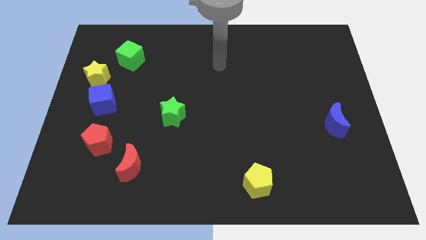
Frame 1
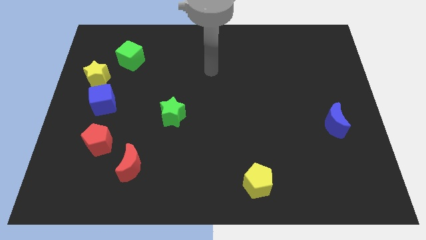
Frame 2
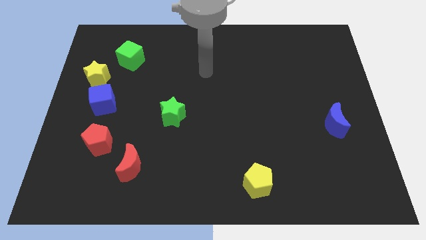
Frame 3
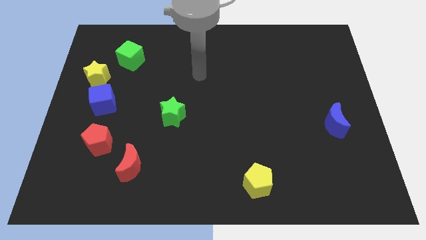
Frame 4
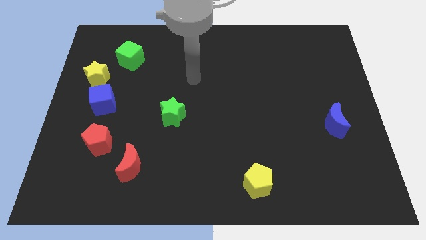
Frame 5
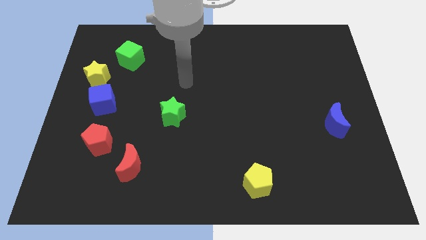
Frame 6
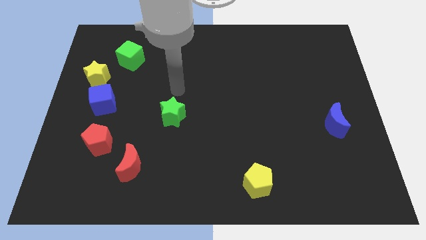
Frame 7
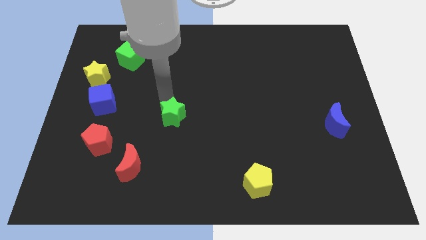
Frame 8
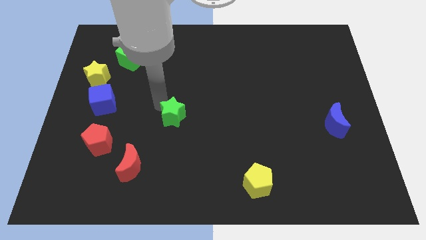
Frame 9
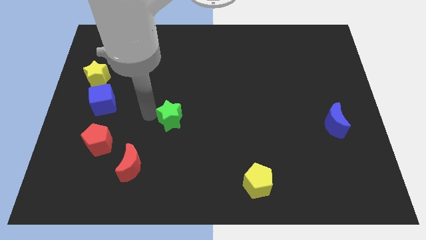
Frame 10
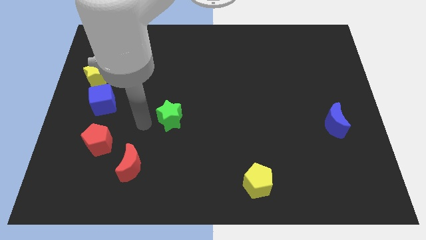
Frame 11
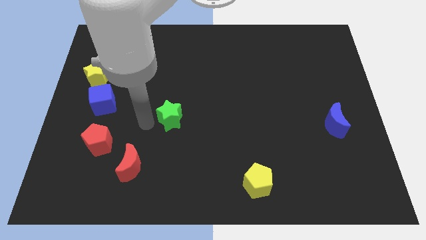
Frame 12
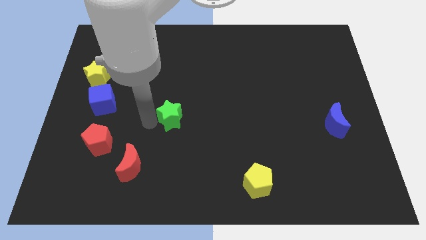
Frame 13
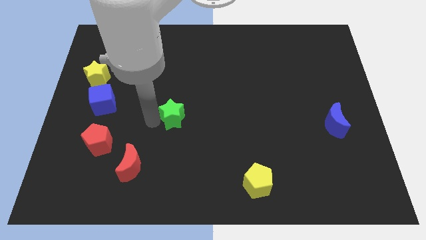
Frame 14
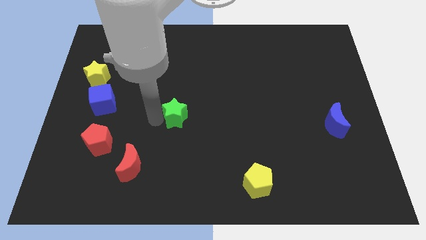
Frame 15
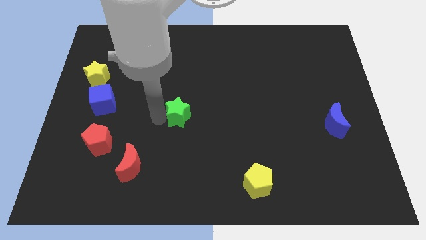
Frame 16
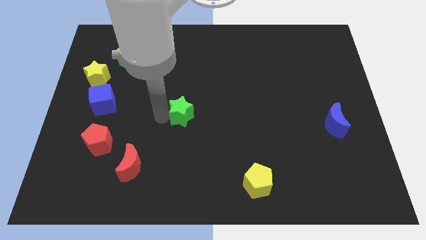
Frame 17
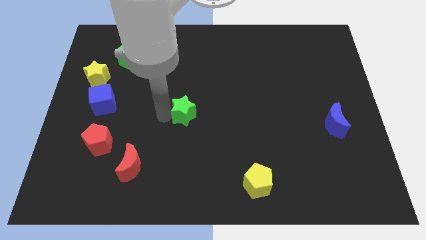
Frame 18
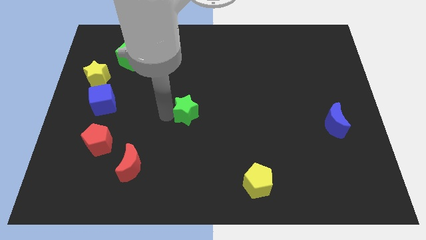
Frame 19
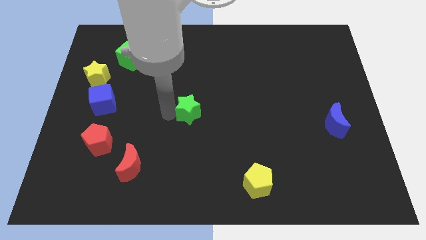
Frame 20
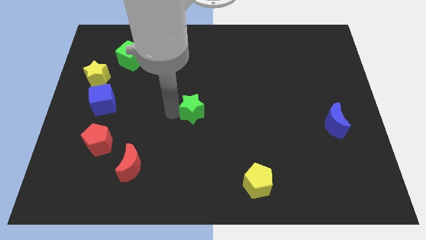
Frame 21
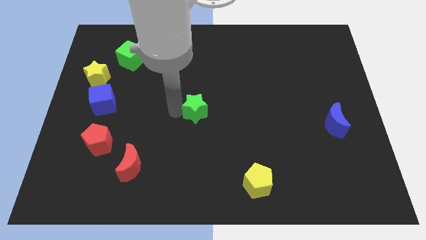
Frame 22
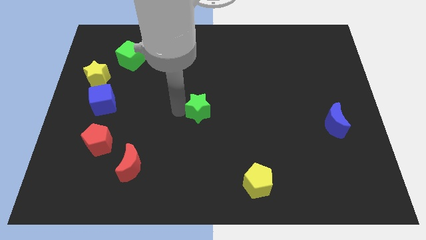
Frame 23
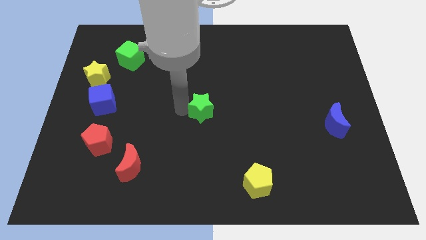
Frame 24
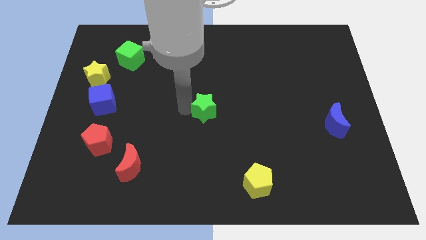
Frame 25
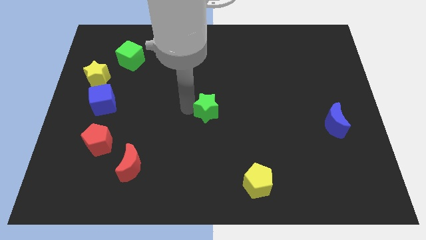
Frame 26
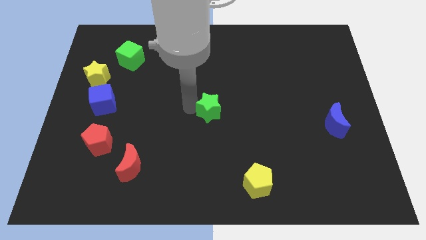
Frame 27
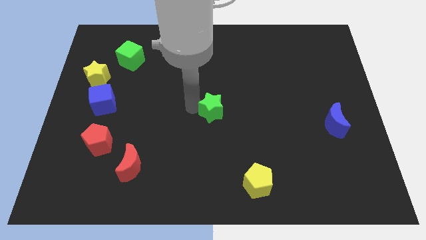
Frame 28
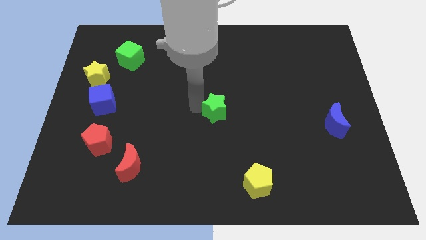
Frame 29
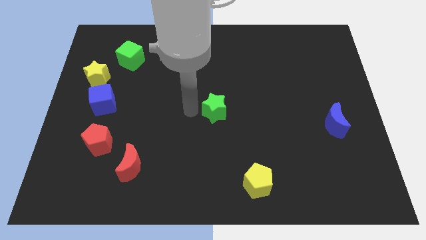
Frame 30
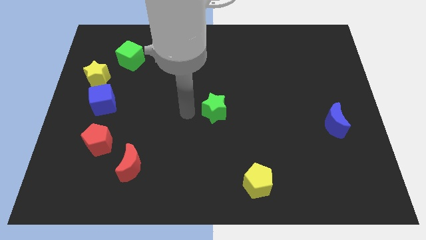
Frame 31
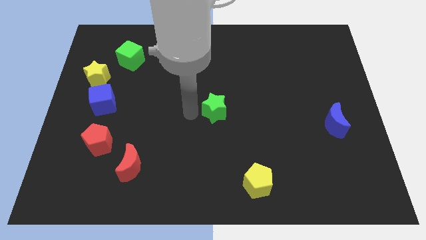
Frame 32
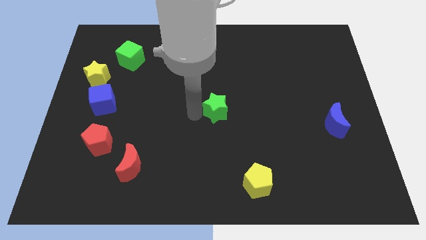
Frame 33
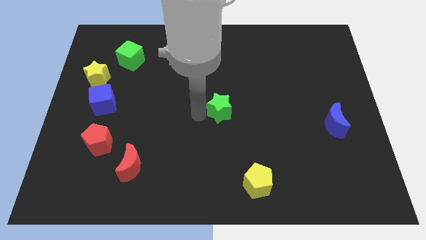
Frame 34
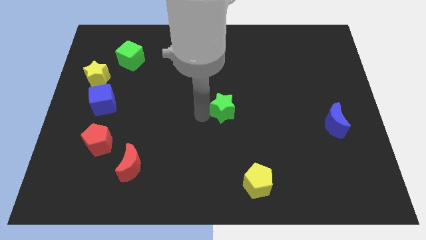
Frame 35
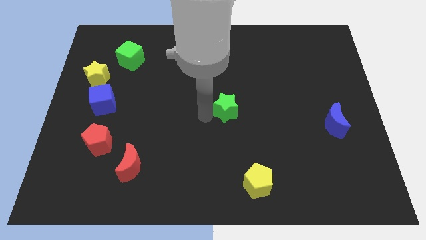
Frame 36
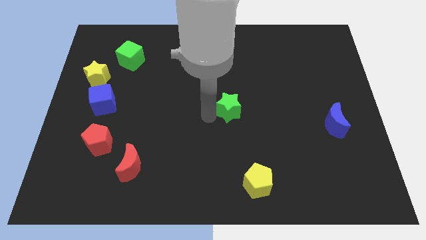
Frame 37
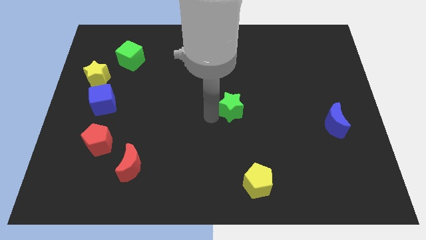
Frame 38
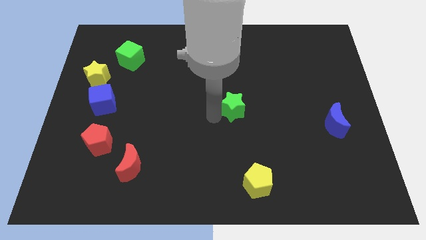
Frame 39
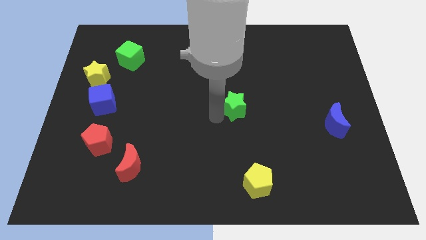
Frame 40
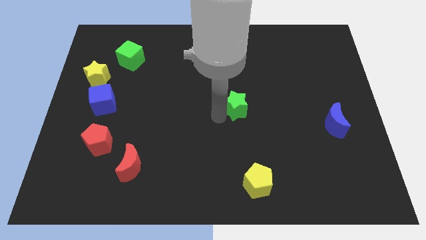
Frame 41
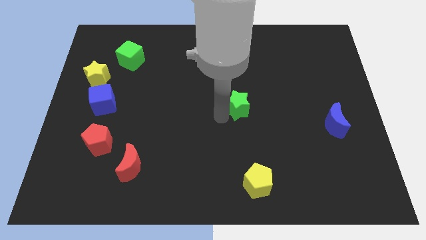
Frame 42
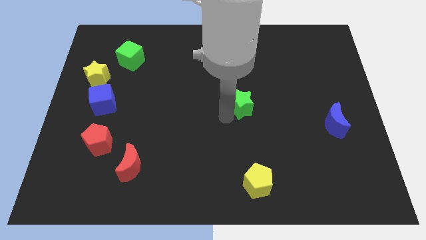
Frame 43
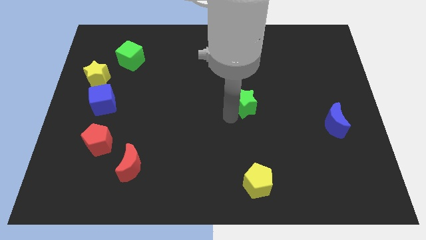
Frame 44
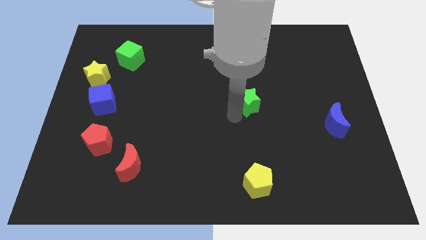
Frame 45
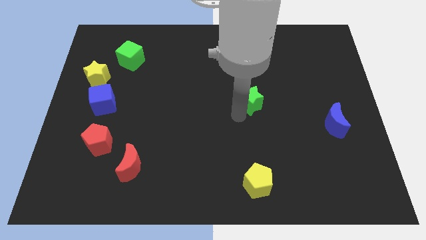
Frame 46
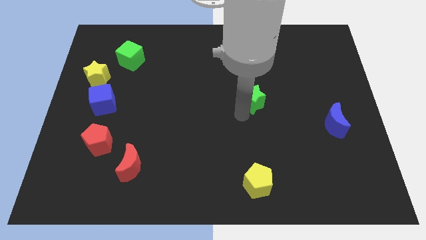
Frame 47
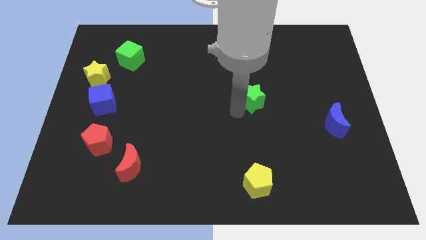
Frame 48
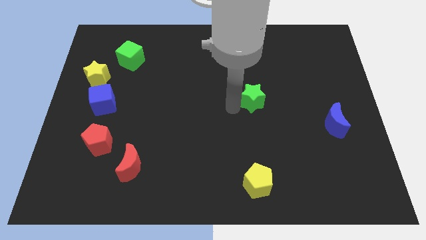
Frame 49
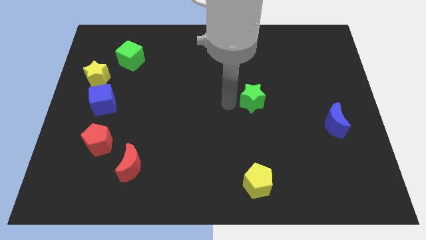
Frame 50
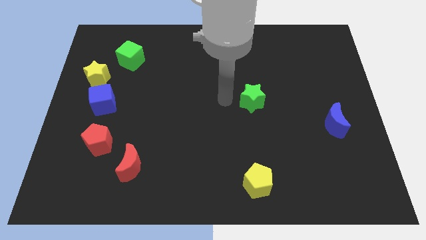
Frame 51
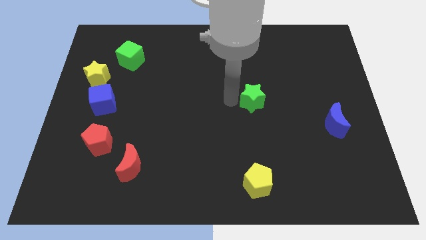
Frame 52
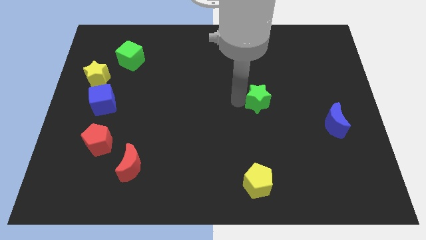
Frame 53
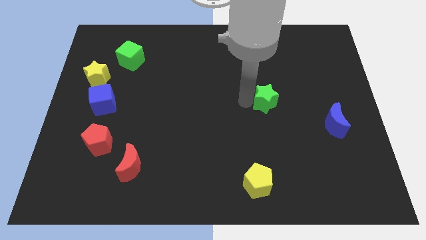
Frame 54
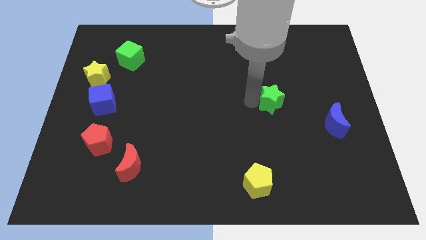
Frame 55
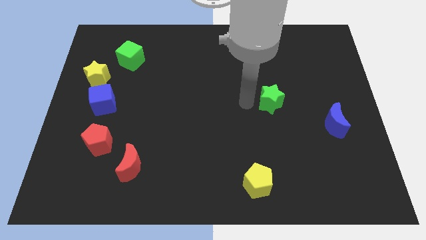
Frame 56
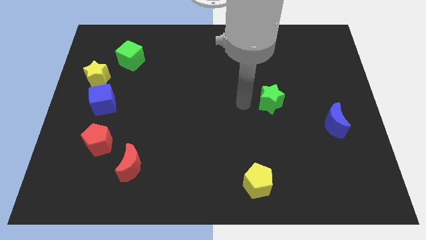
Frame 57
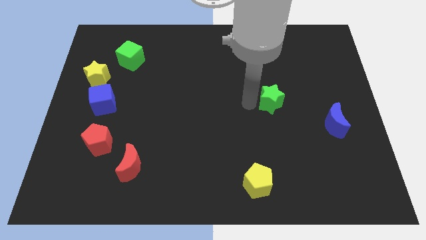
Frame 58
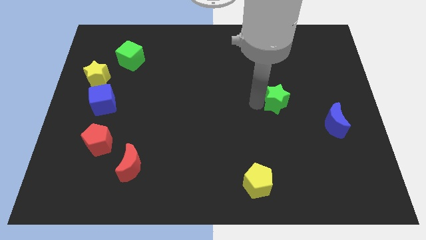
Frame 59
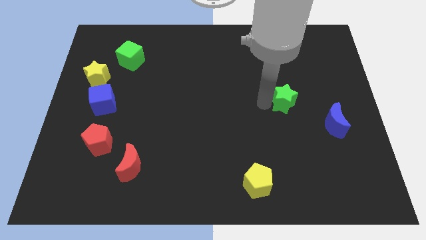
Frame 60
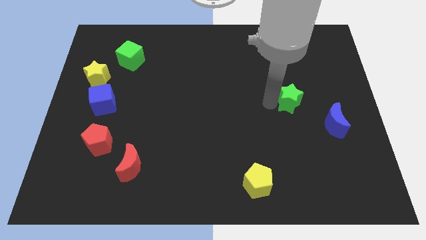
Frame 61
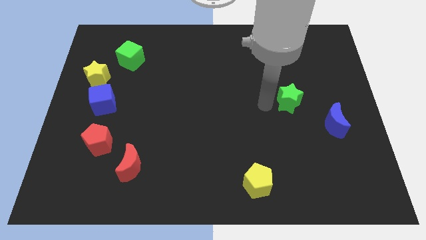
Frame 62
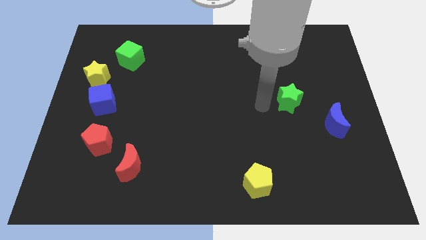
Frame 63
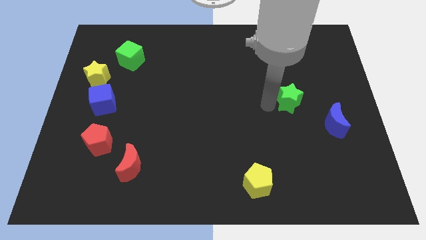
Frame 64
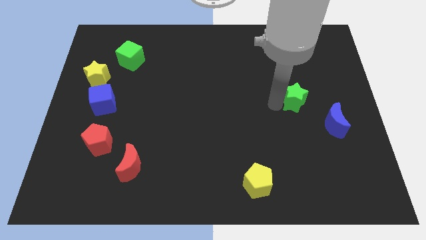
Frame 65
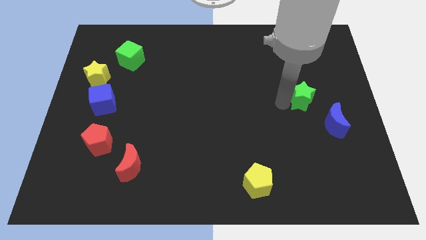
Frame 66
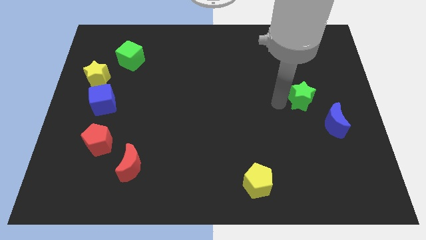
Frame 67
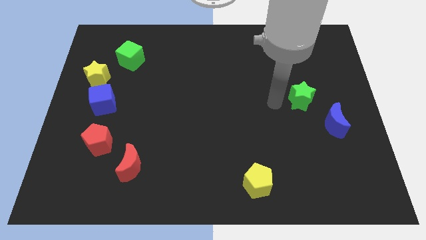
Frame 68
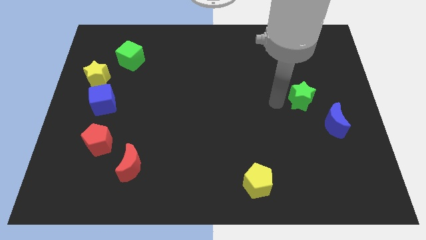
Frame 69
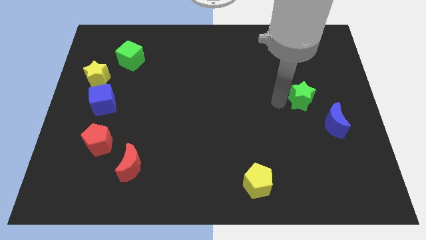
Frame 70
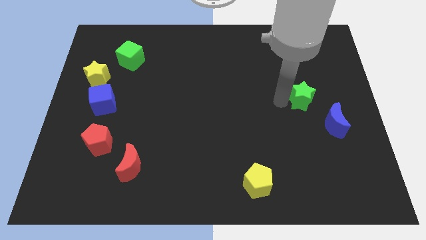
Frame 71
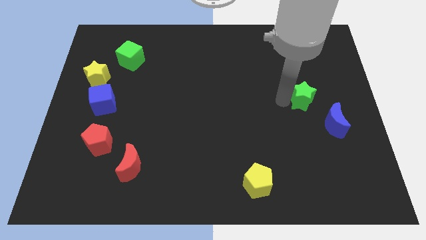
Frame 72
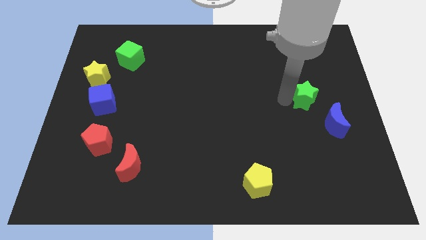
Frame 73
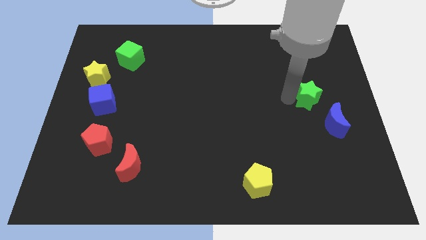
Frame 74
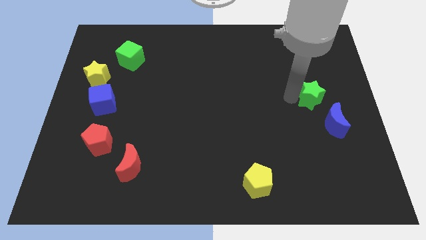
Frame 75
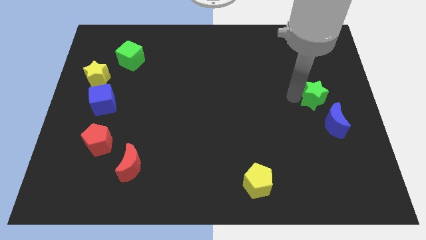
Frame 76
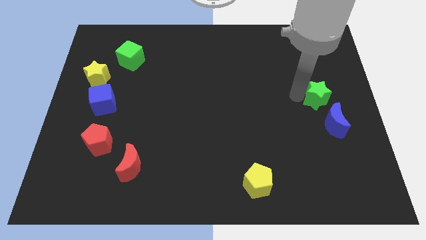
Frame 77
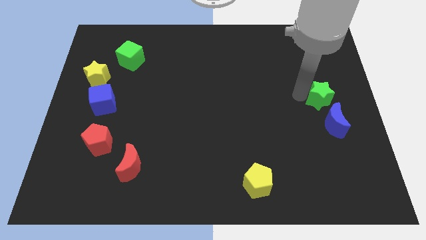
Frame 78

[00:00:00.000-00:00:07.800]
push the green star to the center right
